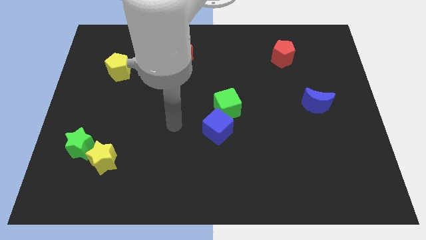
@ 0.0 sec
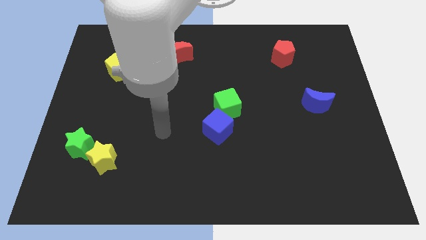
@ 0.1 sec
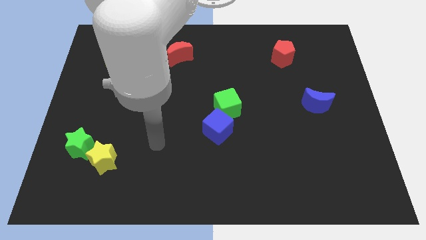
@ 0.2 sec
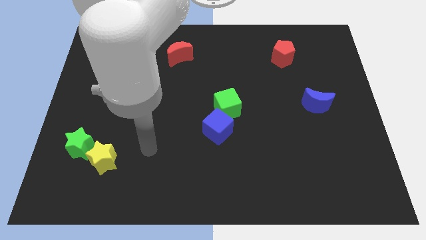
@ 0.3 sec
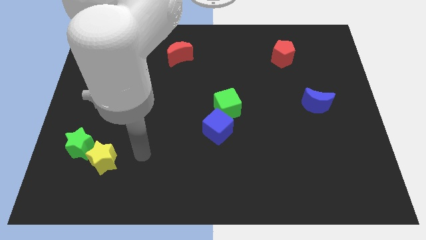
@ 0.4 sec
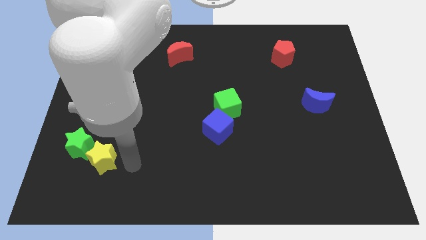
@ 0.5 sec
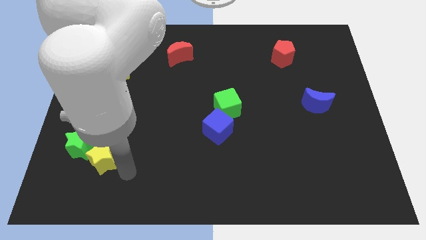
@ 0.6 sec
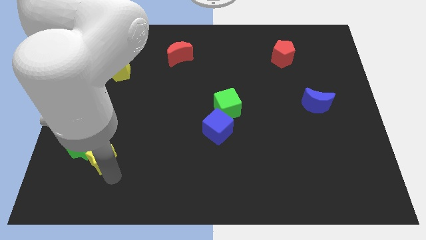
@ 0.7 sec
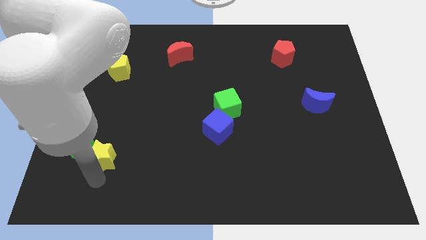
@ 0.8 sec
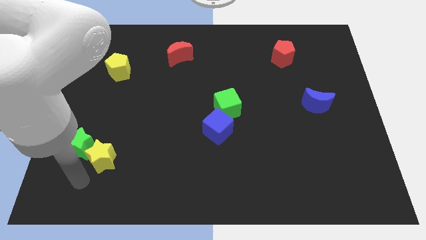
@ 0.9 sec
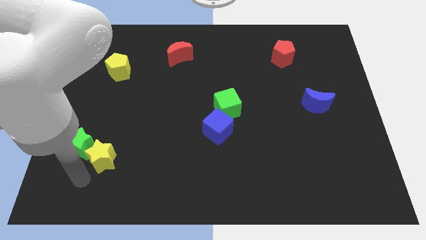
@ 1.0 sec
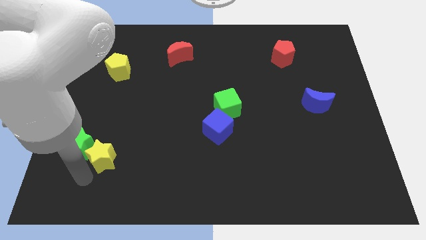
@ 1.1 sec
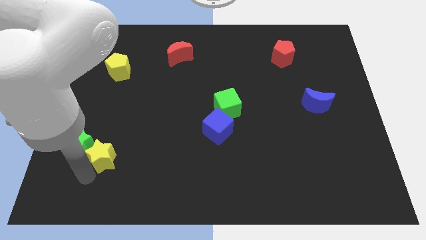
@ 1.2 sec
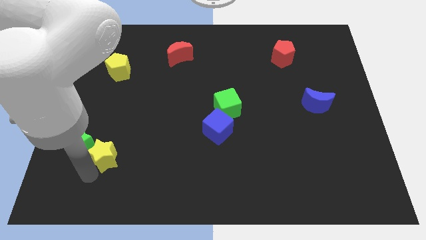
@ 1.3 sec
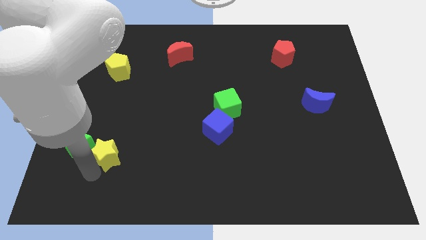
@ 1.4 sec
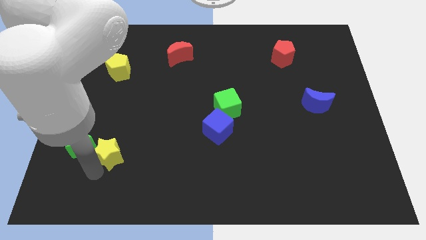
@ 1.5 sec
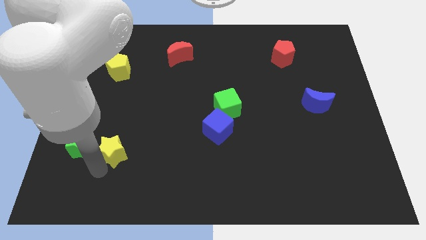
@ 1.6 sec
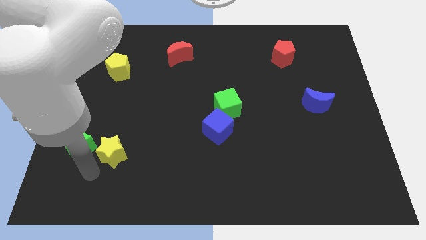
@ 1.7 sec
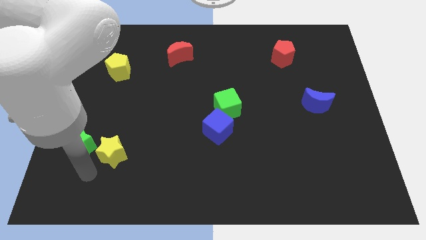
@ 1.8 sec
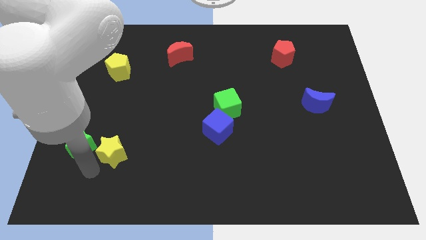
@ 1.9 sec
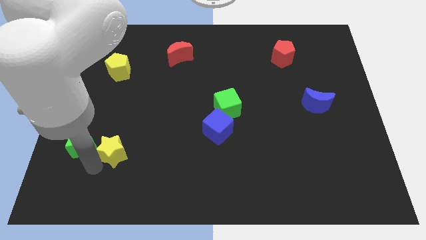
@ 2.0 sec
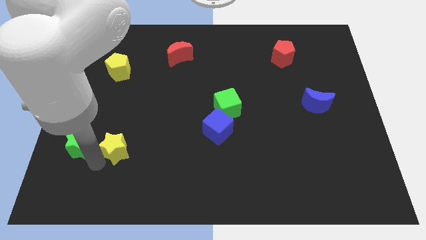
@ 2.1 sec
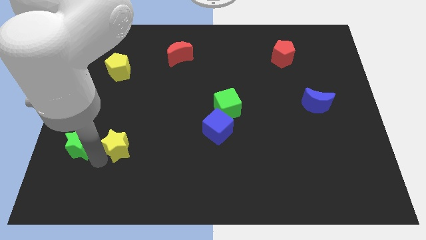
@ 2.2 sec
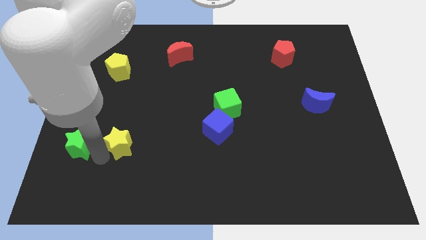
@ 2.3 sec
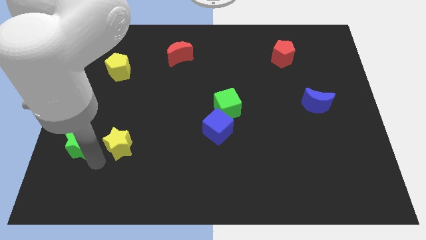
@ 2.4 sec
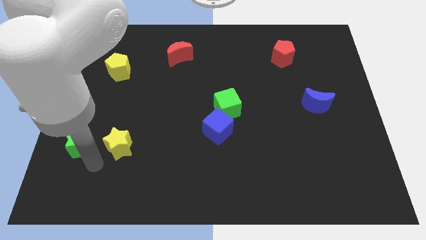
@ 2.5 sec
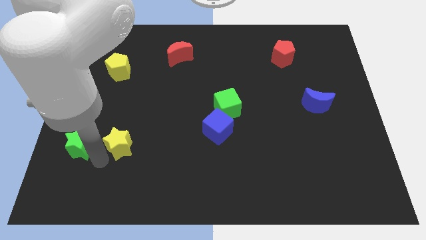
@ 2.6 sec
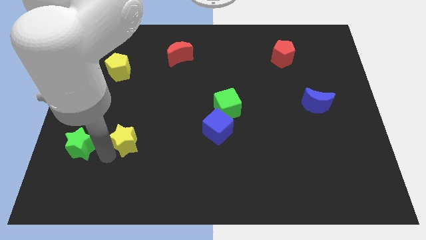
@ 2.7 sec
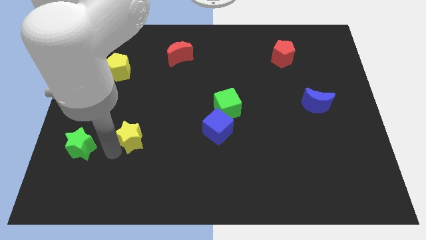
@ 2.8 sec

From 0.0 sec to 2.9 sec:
move the yellow star up and right diagonally slightly

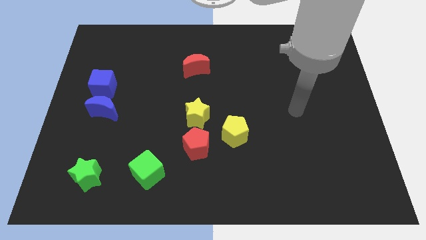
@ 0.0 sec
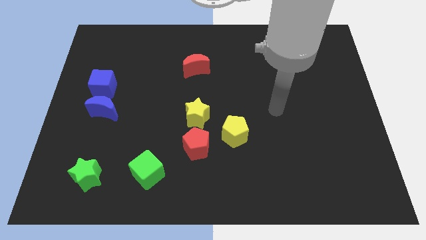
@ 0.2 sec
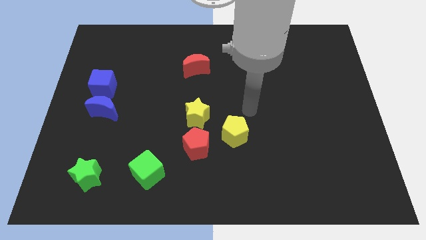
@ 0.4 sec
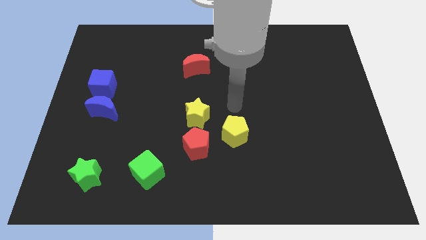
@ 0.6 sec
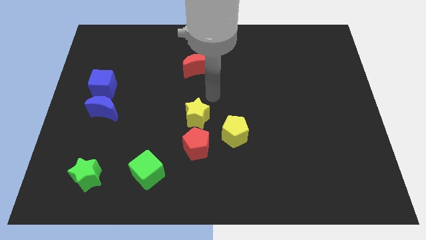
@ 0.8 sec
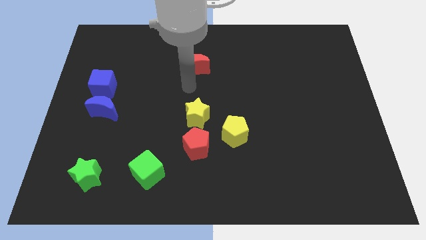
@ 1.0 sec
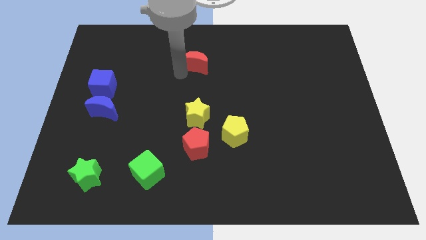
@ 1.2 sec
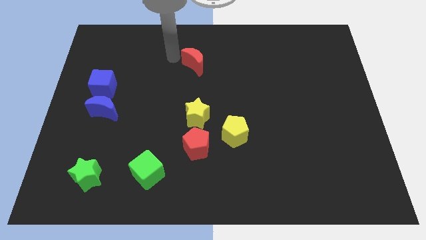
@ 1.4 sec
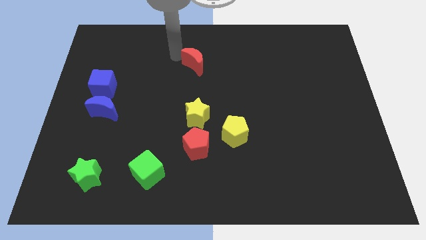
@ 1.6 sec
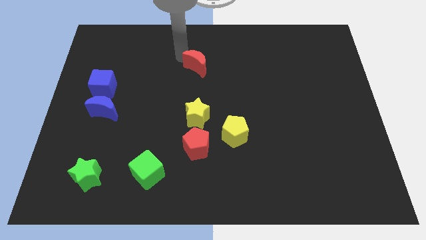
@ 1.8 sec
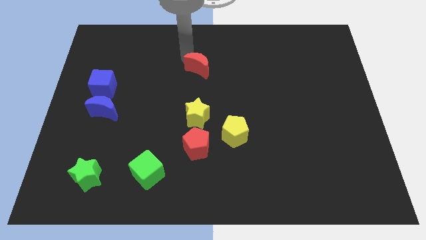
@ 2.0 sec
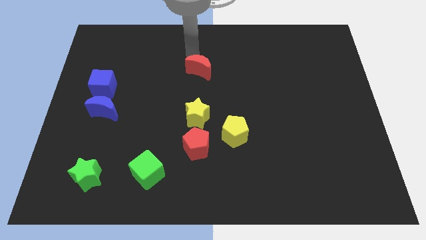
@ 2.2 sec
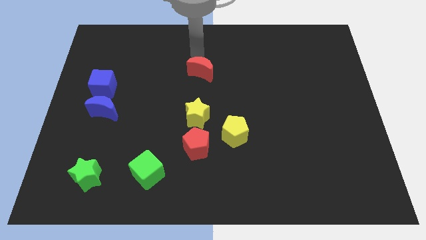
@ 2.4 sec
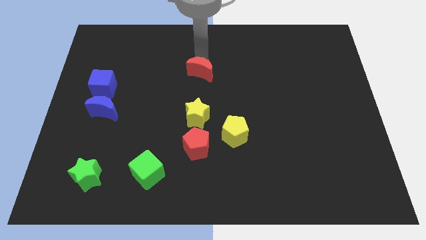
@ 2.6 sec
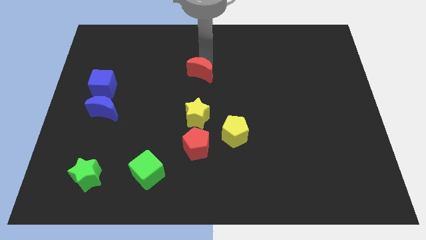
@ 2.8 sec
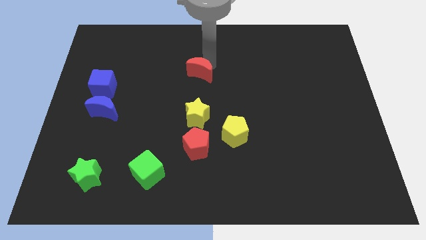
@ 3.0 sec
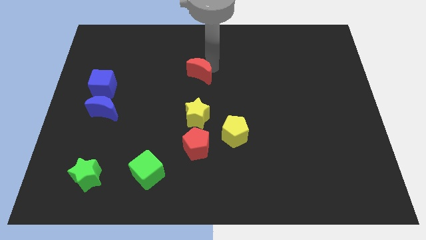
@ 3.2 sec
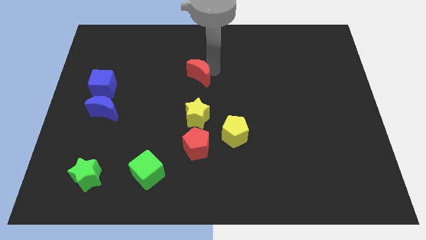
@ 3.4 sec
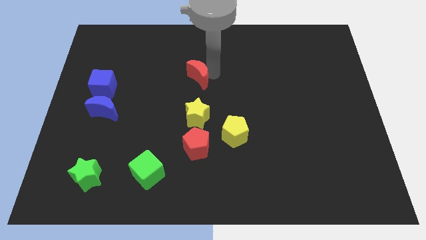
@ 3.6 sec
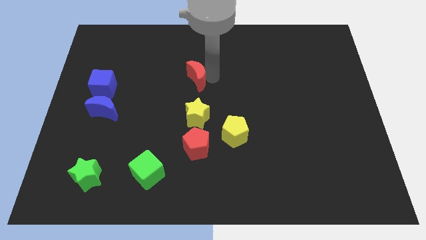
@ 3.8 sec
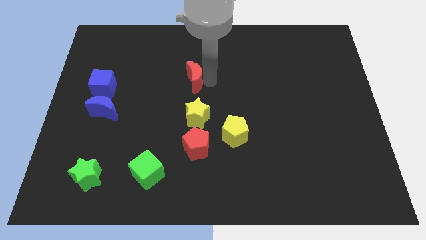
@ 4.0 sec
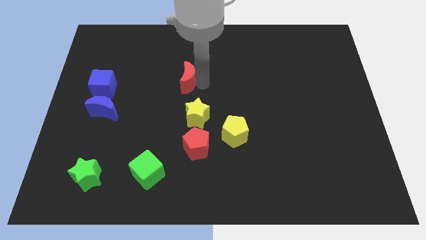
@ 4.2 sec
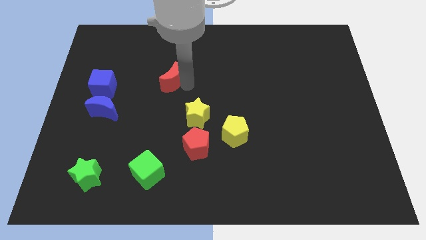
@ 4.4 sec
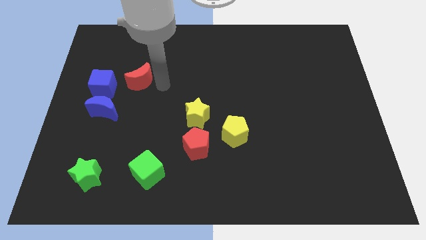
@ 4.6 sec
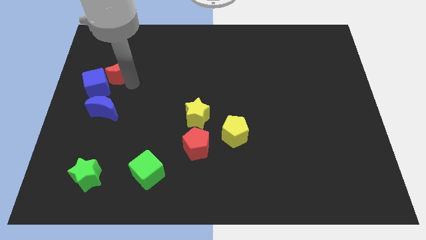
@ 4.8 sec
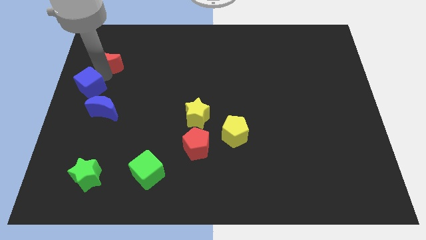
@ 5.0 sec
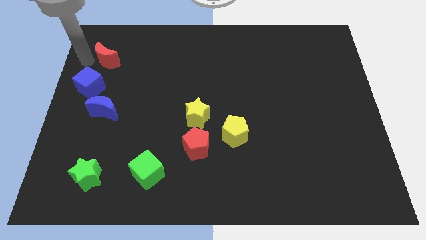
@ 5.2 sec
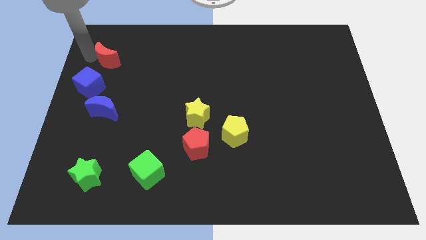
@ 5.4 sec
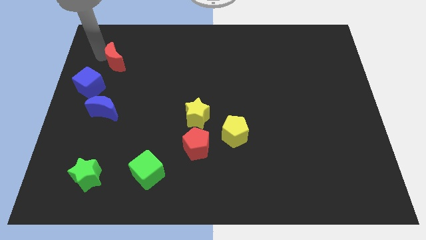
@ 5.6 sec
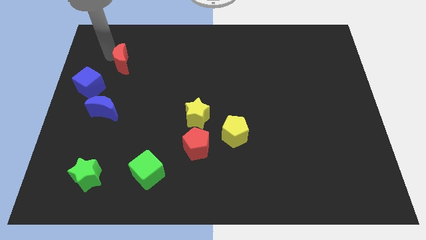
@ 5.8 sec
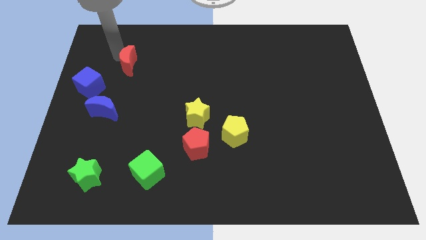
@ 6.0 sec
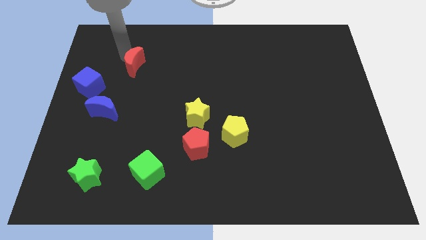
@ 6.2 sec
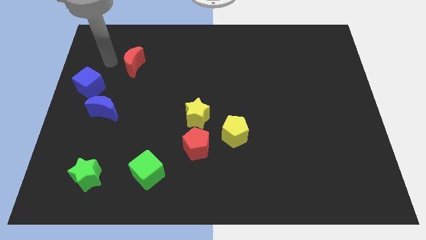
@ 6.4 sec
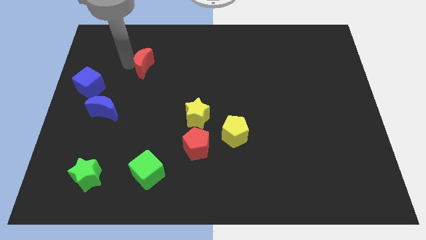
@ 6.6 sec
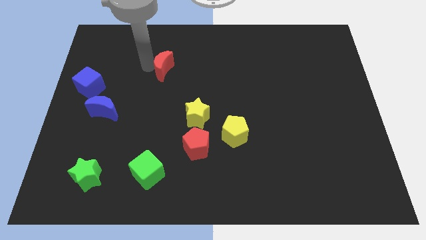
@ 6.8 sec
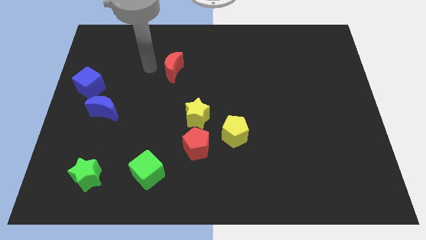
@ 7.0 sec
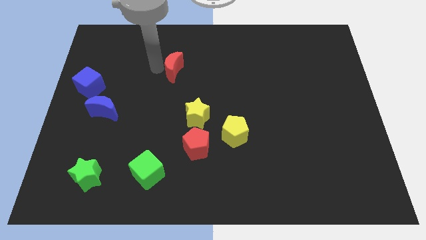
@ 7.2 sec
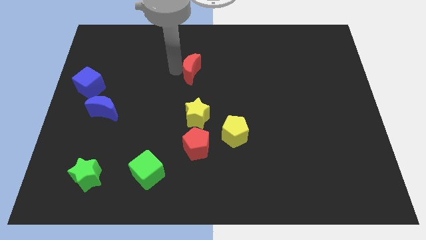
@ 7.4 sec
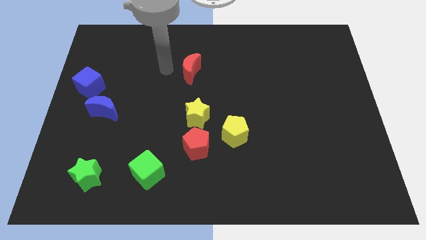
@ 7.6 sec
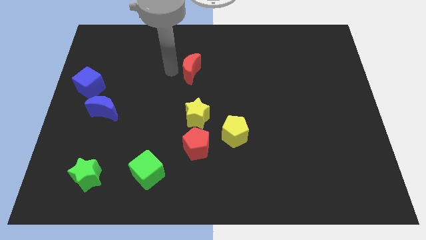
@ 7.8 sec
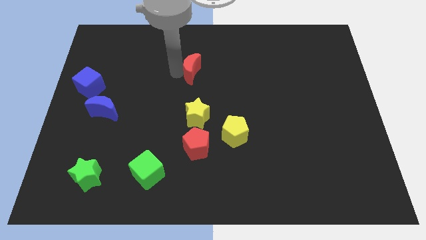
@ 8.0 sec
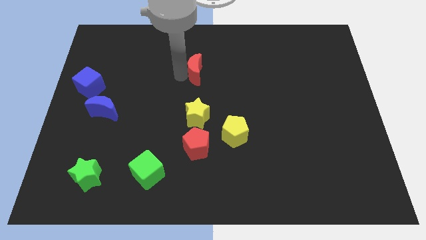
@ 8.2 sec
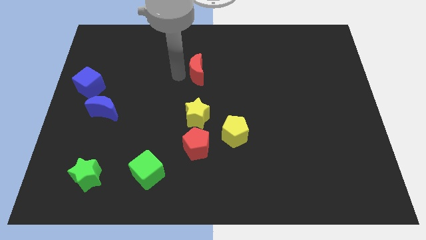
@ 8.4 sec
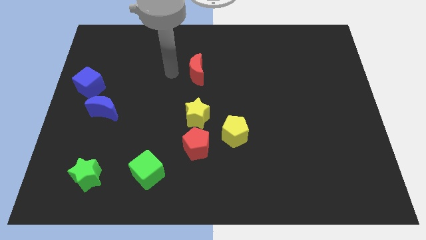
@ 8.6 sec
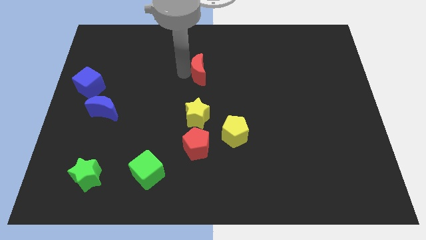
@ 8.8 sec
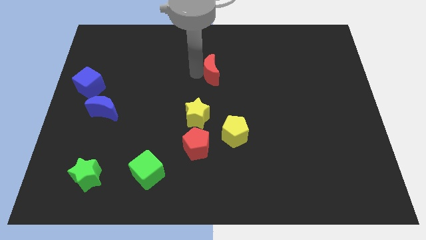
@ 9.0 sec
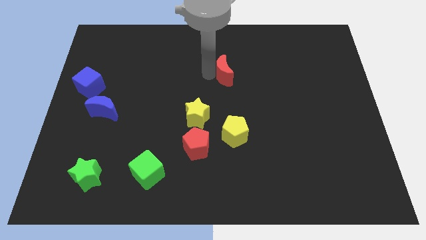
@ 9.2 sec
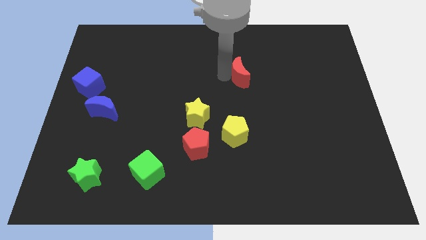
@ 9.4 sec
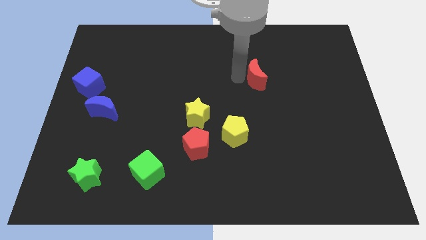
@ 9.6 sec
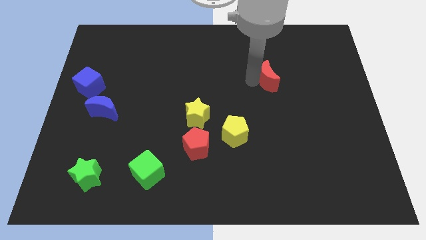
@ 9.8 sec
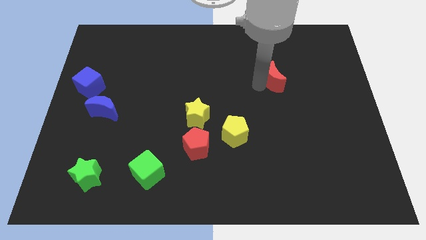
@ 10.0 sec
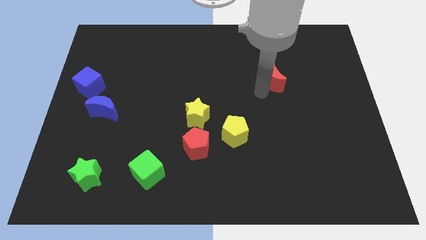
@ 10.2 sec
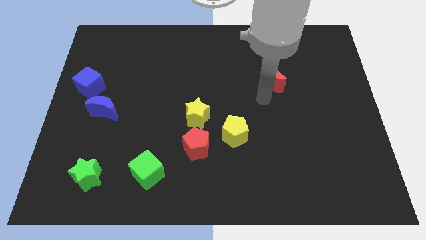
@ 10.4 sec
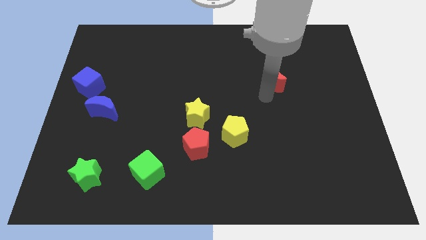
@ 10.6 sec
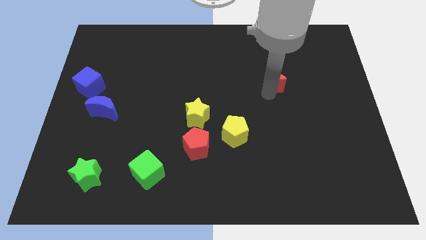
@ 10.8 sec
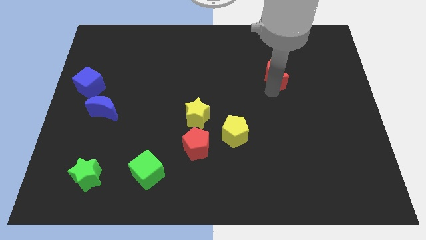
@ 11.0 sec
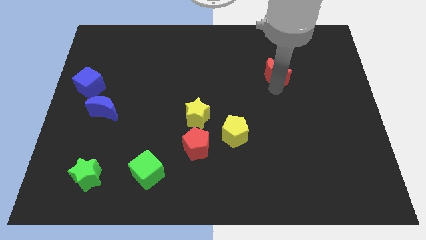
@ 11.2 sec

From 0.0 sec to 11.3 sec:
slide the red moon to the right
